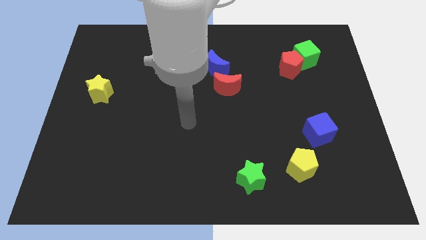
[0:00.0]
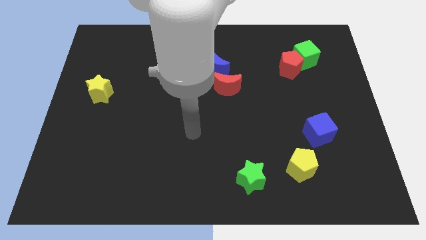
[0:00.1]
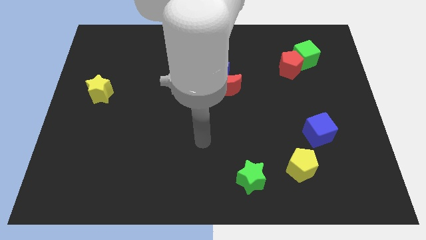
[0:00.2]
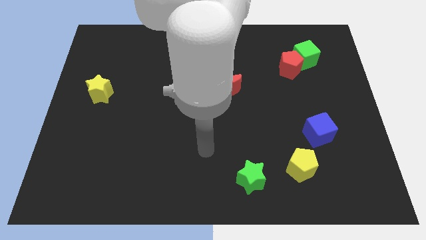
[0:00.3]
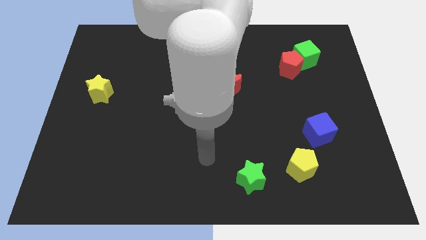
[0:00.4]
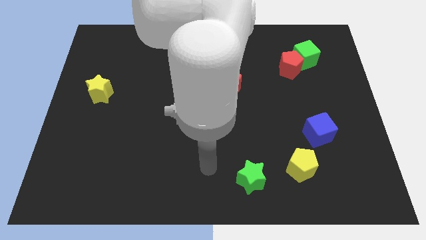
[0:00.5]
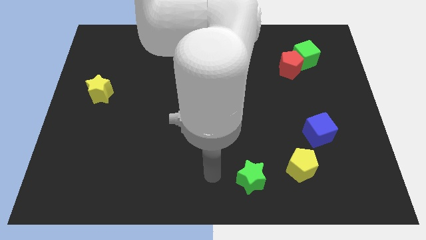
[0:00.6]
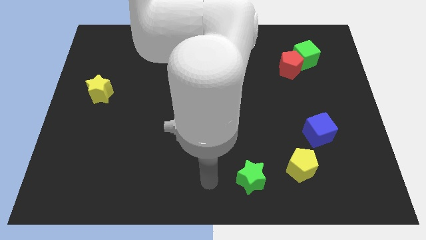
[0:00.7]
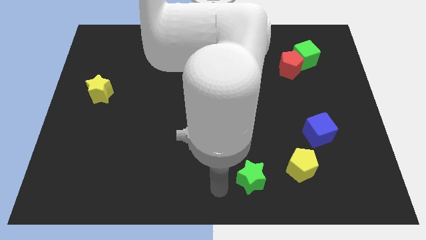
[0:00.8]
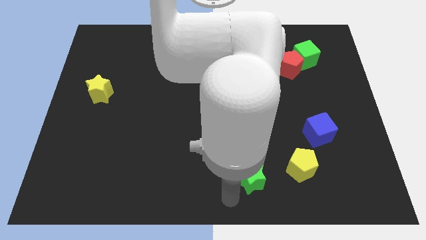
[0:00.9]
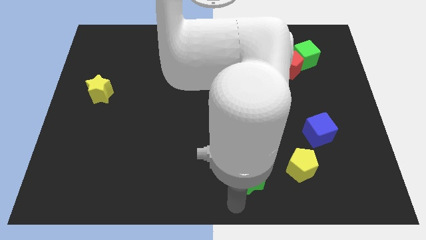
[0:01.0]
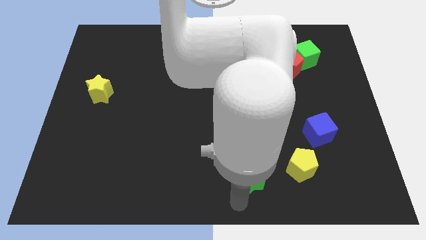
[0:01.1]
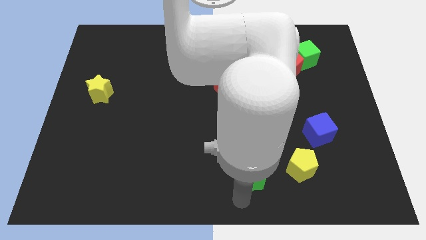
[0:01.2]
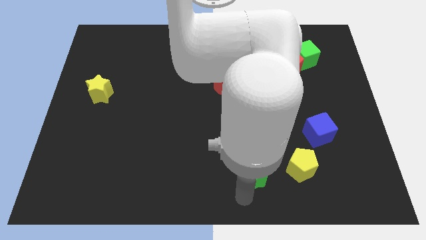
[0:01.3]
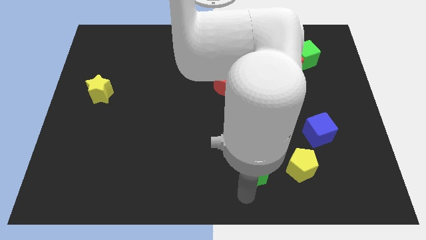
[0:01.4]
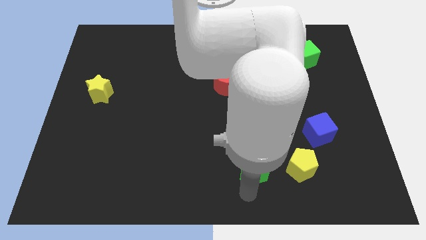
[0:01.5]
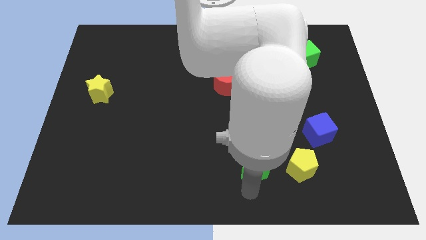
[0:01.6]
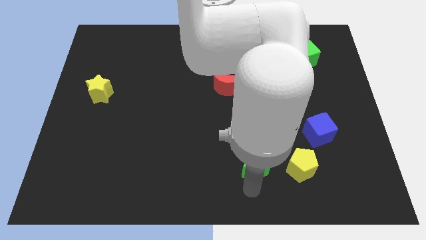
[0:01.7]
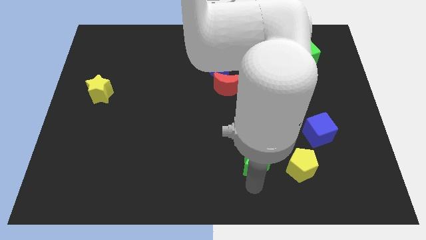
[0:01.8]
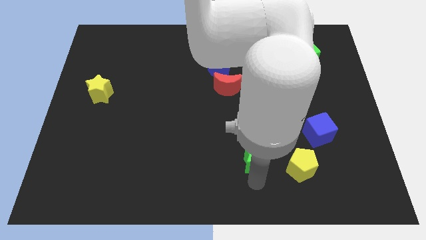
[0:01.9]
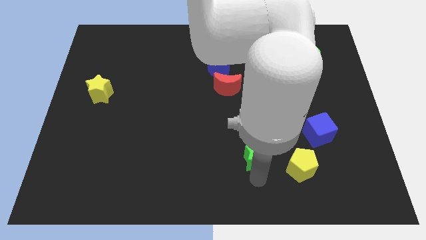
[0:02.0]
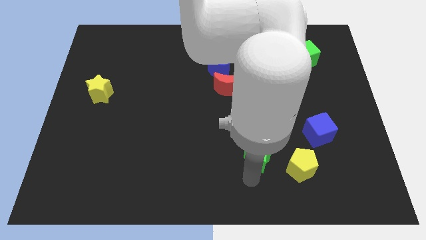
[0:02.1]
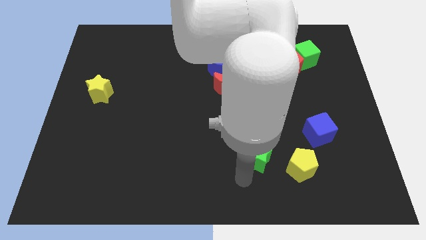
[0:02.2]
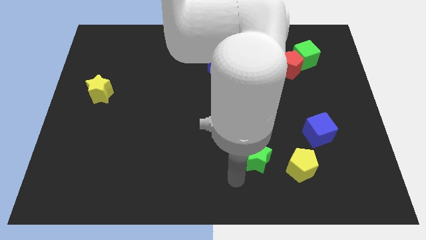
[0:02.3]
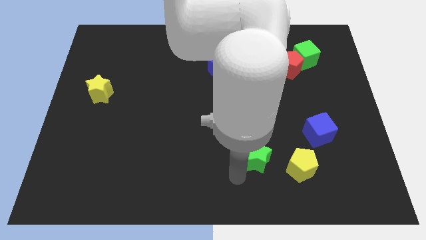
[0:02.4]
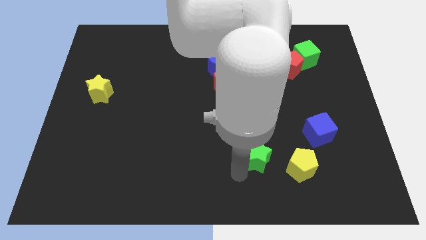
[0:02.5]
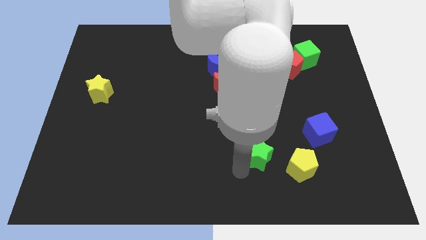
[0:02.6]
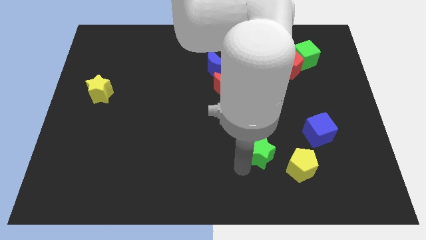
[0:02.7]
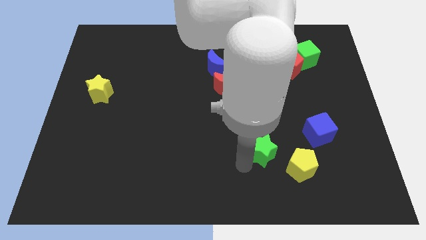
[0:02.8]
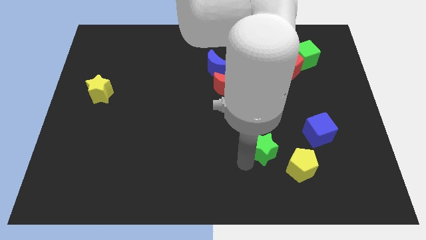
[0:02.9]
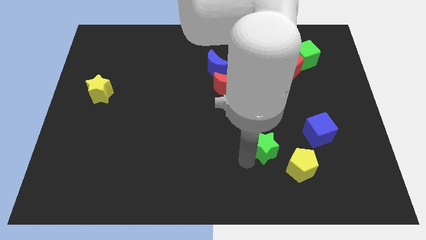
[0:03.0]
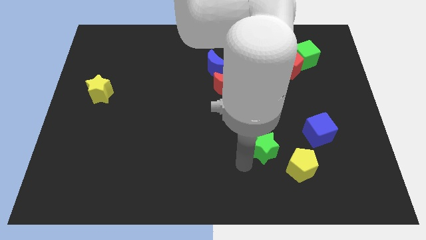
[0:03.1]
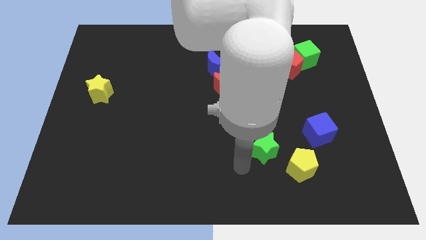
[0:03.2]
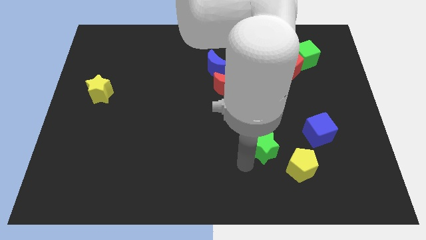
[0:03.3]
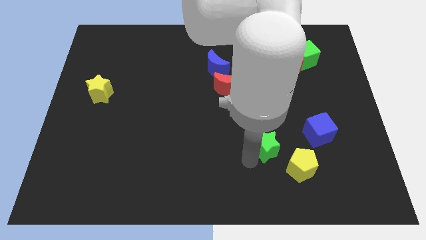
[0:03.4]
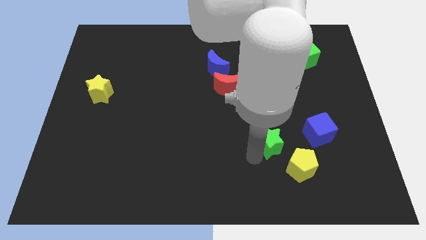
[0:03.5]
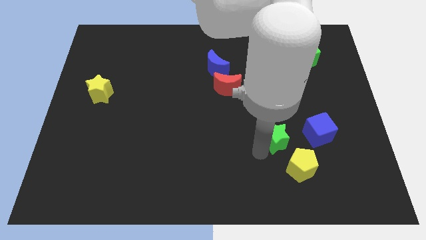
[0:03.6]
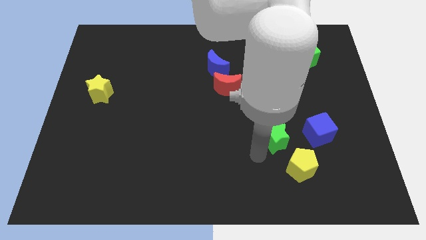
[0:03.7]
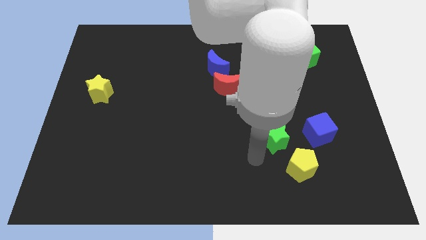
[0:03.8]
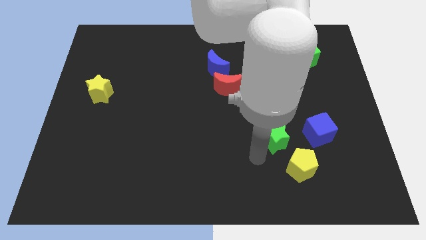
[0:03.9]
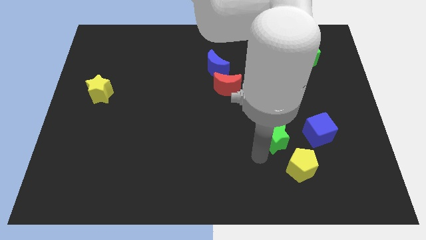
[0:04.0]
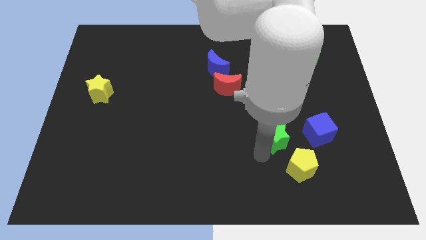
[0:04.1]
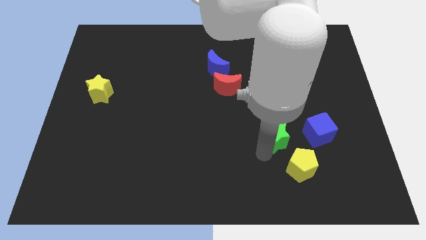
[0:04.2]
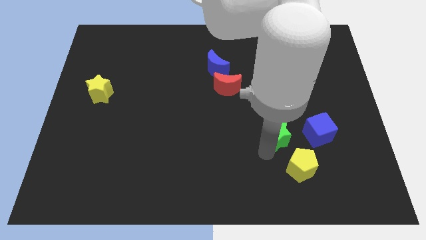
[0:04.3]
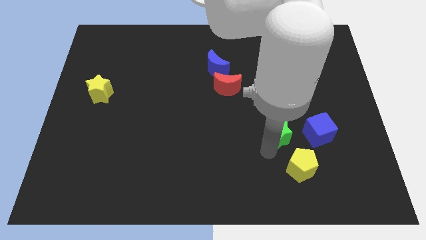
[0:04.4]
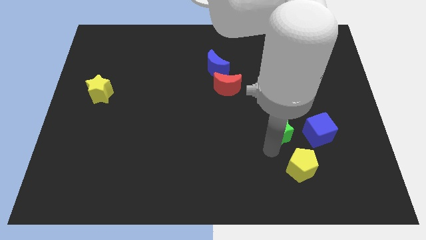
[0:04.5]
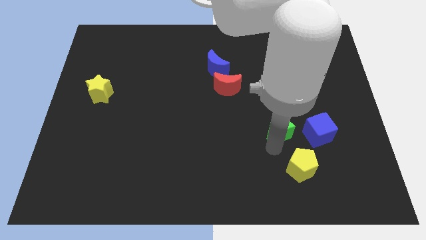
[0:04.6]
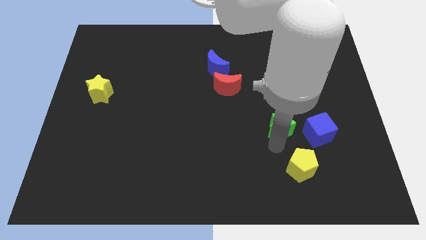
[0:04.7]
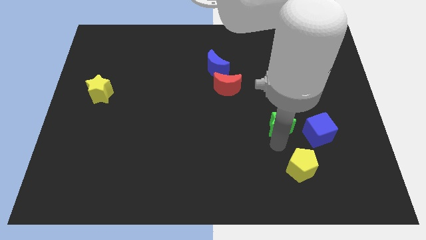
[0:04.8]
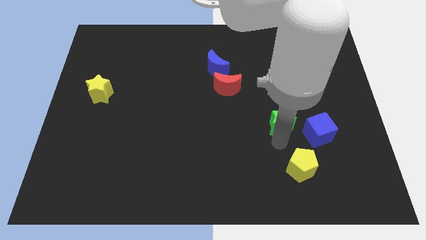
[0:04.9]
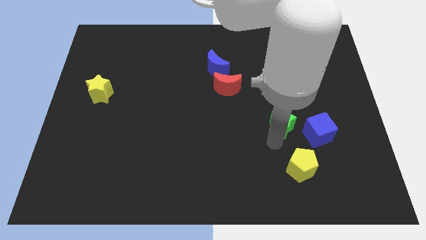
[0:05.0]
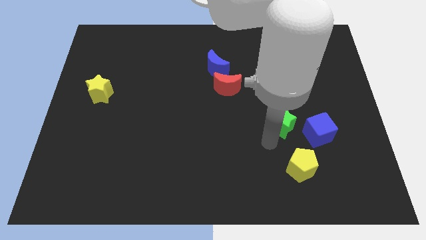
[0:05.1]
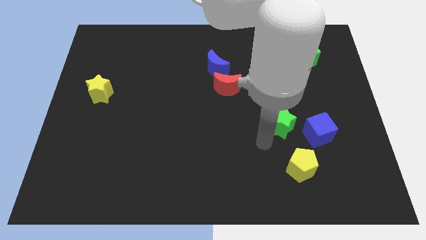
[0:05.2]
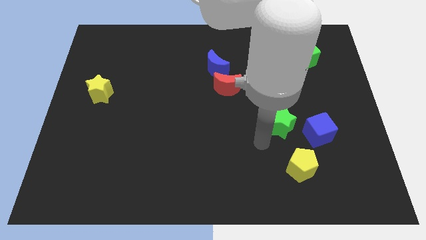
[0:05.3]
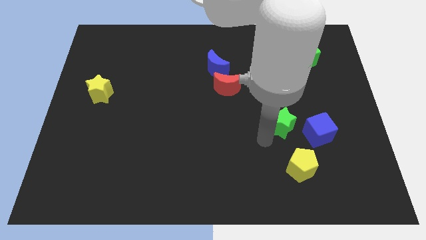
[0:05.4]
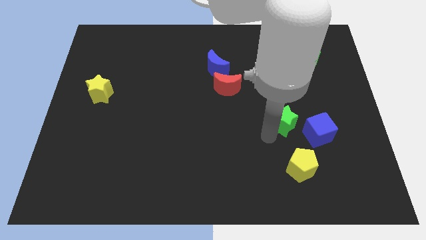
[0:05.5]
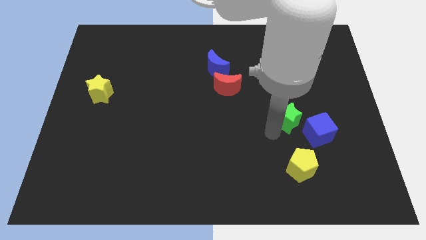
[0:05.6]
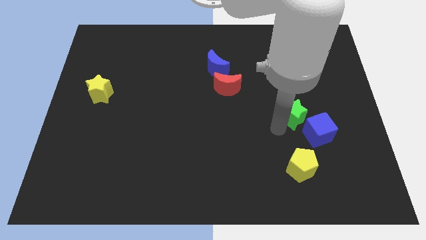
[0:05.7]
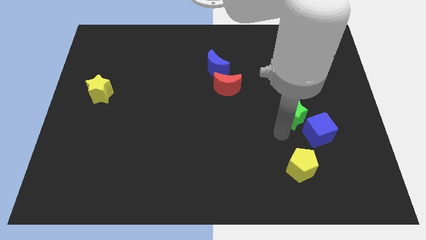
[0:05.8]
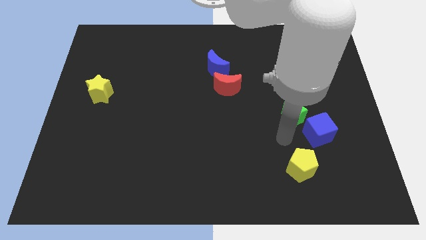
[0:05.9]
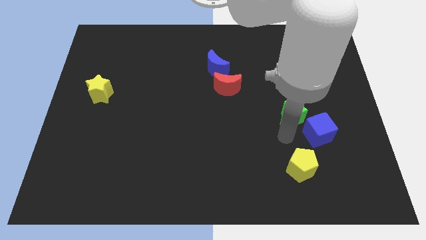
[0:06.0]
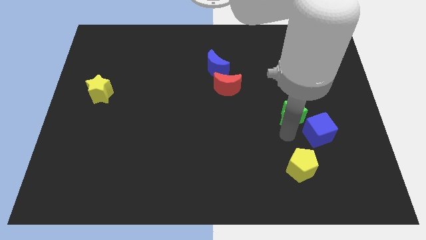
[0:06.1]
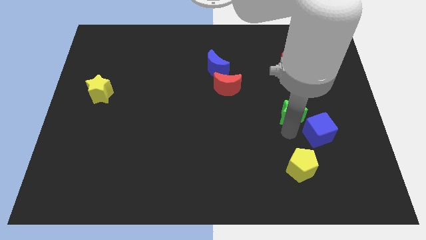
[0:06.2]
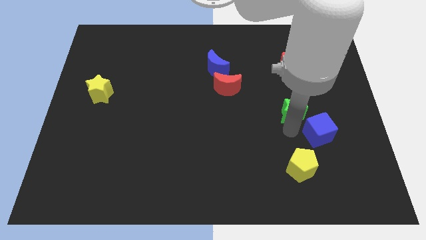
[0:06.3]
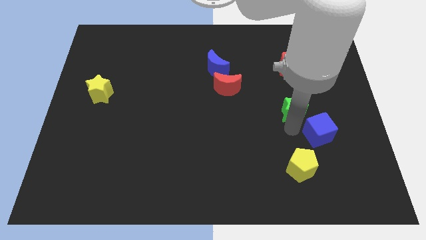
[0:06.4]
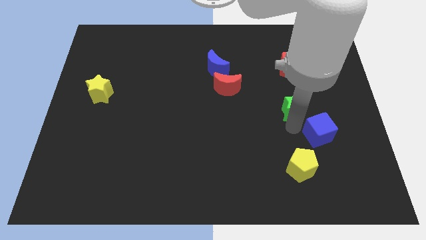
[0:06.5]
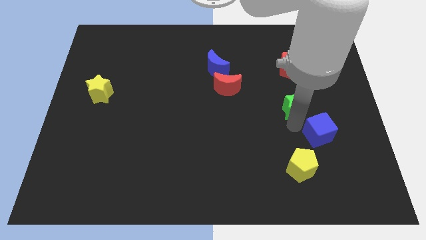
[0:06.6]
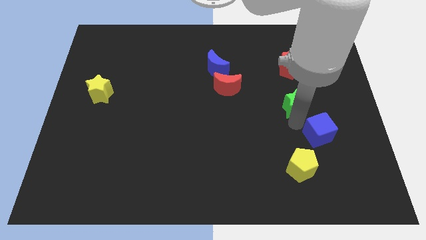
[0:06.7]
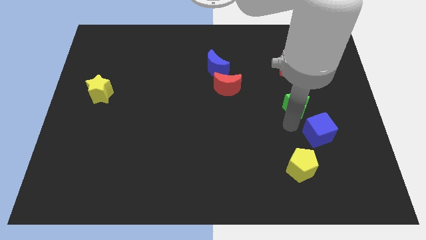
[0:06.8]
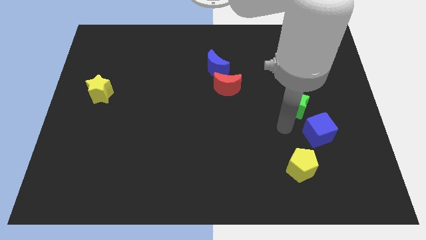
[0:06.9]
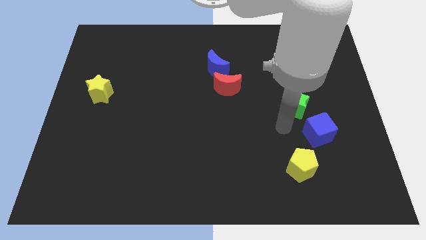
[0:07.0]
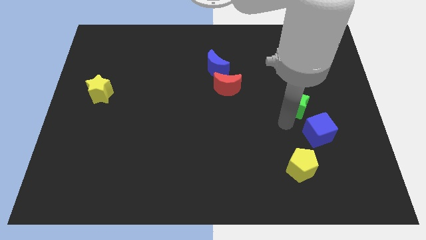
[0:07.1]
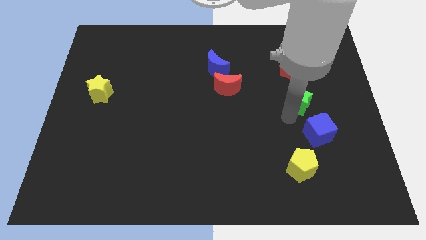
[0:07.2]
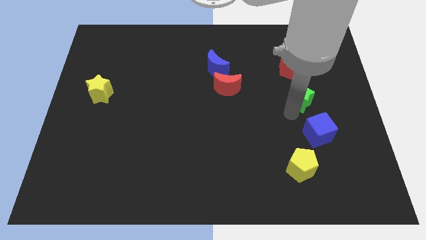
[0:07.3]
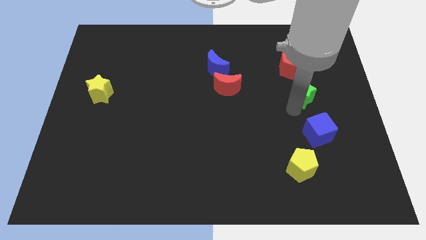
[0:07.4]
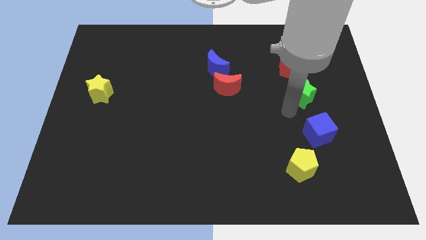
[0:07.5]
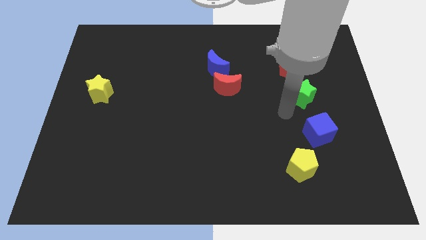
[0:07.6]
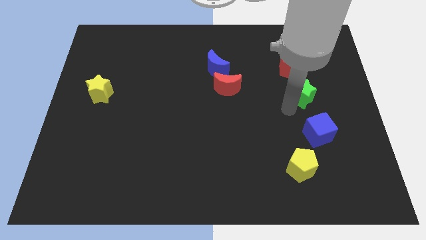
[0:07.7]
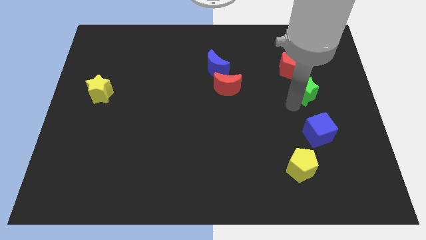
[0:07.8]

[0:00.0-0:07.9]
push the green star to the bottom right of the red pentagon
